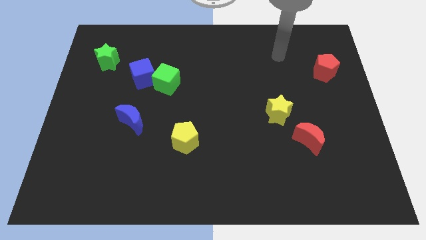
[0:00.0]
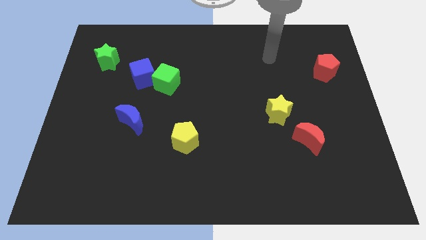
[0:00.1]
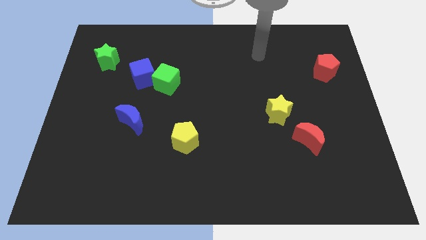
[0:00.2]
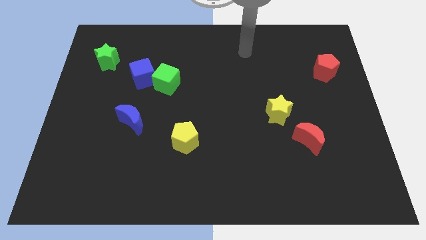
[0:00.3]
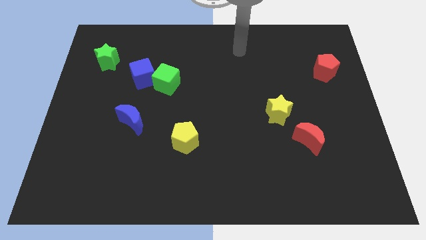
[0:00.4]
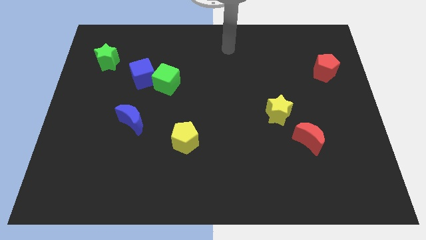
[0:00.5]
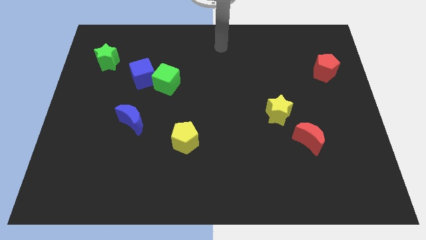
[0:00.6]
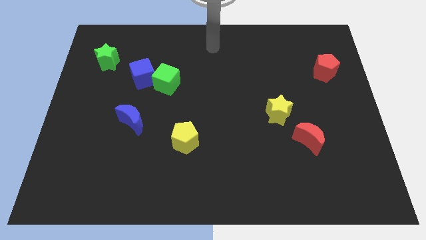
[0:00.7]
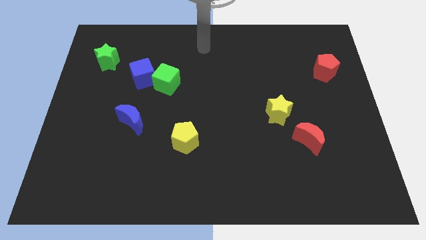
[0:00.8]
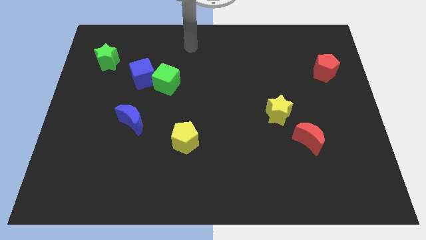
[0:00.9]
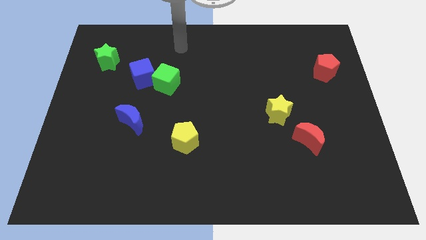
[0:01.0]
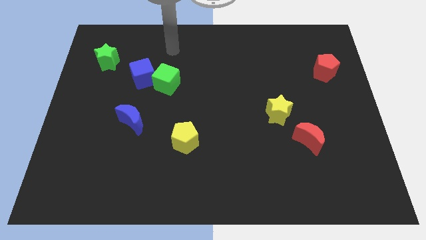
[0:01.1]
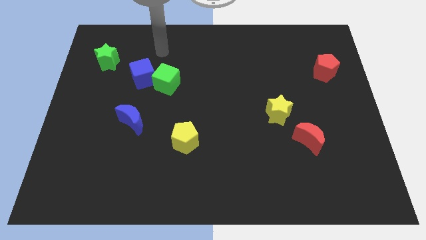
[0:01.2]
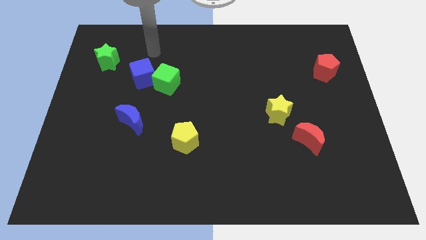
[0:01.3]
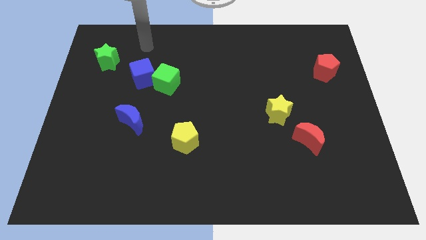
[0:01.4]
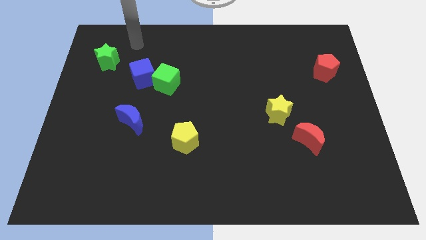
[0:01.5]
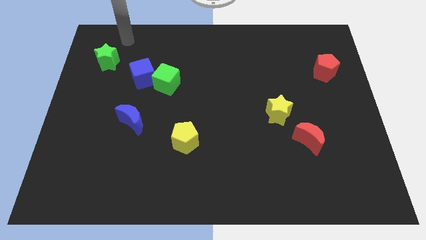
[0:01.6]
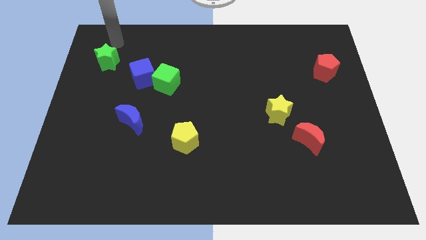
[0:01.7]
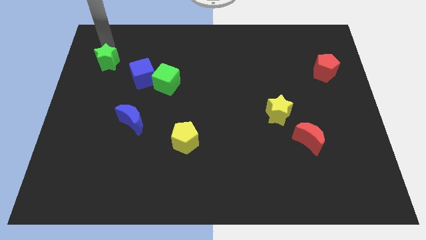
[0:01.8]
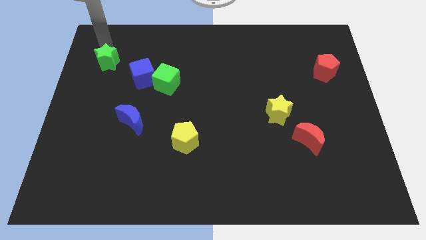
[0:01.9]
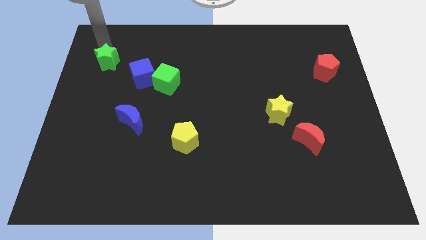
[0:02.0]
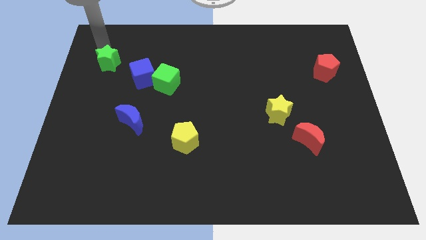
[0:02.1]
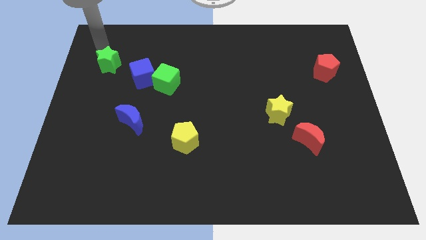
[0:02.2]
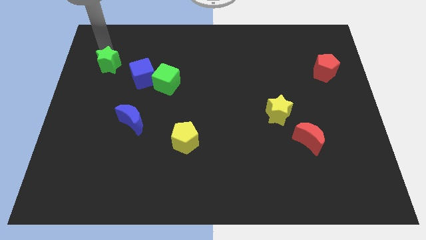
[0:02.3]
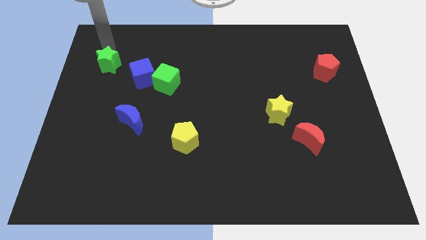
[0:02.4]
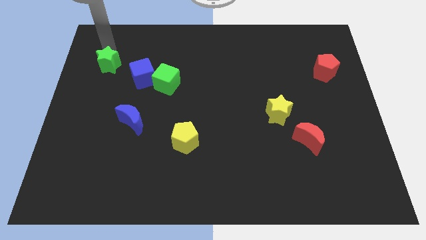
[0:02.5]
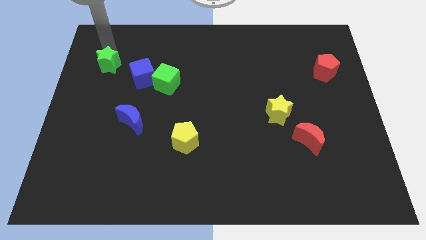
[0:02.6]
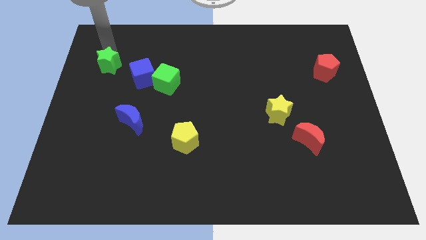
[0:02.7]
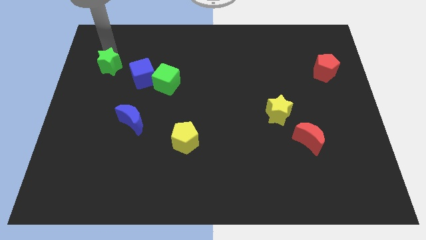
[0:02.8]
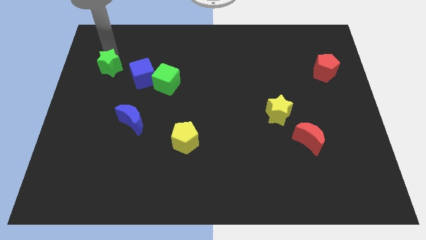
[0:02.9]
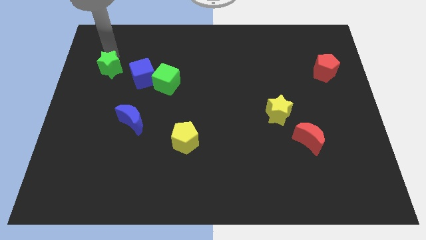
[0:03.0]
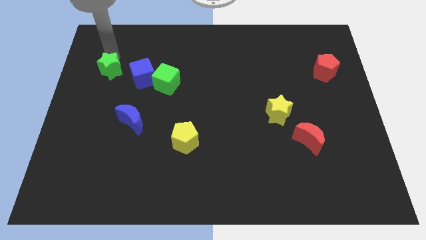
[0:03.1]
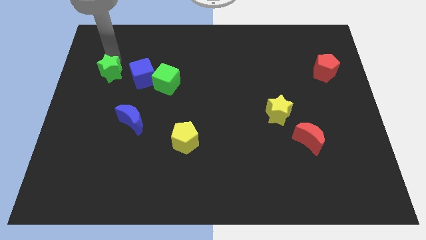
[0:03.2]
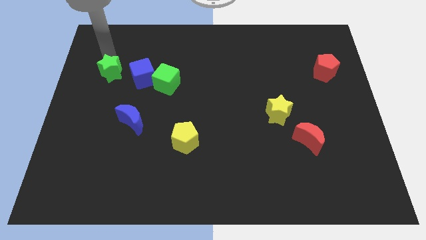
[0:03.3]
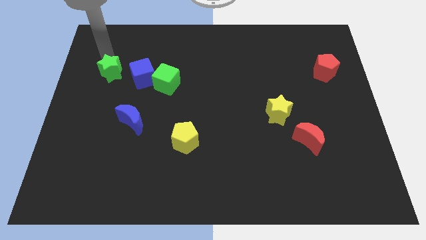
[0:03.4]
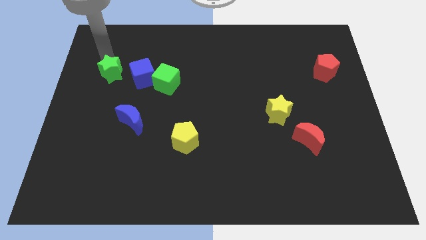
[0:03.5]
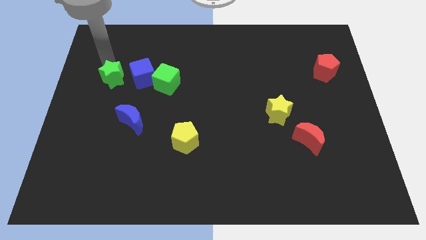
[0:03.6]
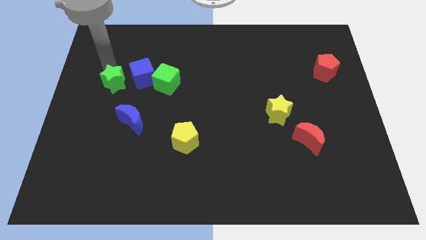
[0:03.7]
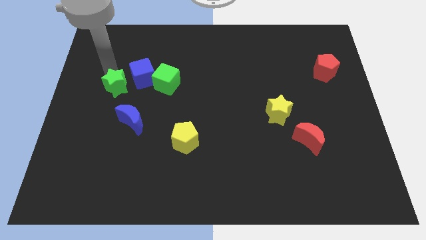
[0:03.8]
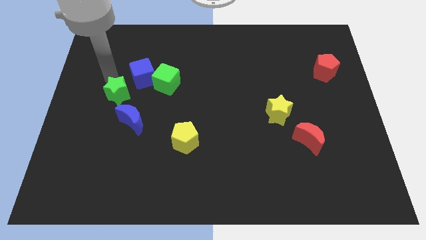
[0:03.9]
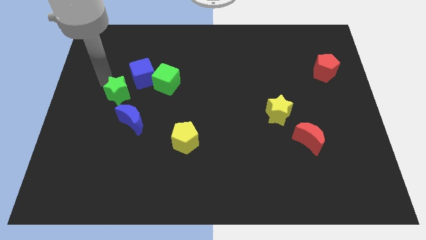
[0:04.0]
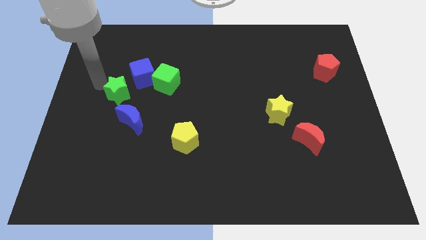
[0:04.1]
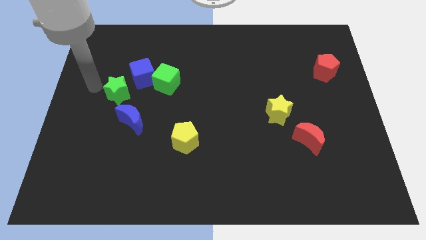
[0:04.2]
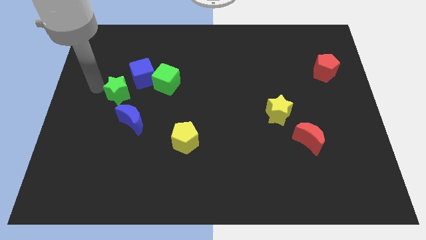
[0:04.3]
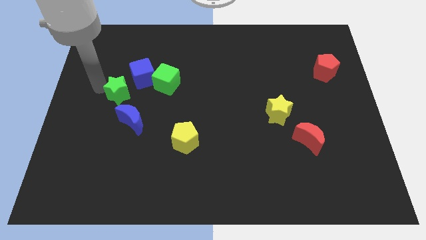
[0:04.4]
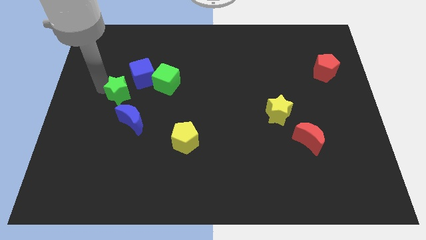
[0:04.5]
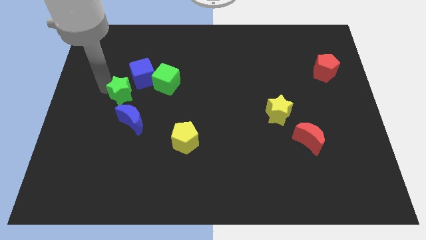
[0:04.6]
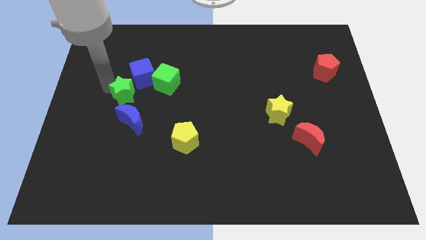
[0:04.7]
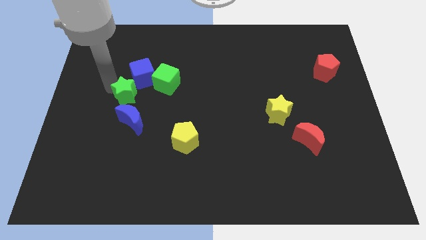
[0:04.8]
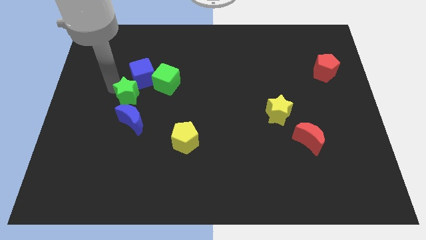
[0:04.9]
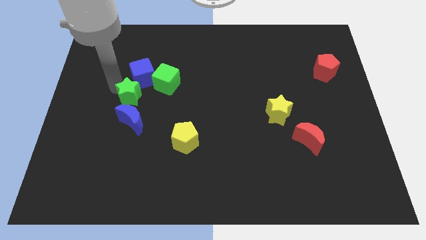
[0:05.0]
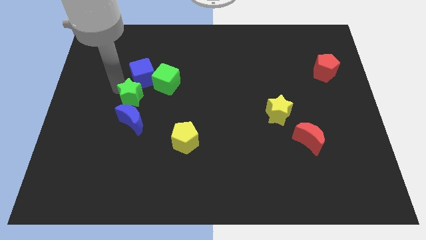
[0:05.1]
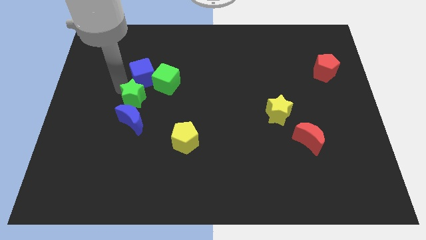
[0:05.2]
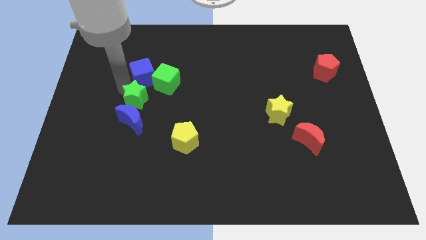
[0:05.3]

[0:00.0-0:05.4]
put the green star to the top right of the blue moon

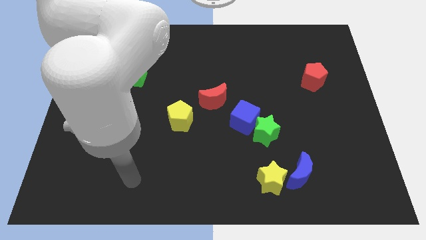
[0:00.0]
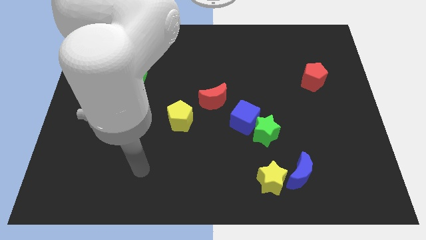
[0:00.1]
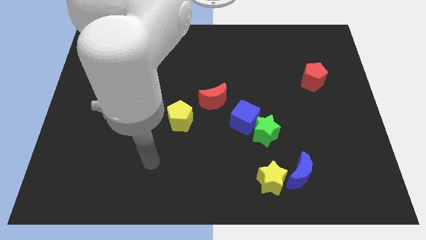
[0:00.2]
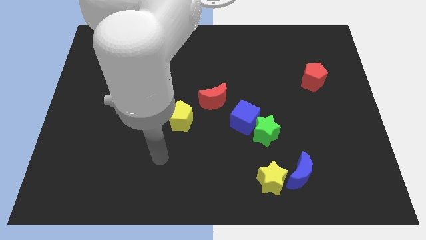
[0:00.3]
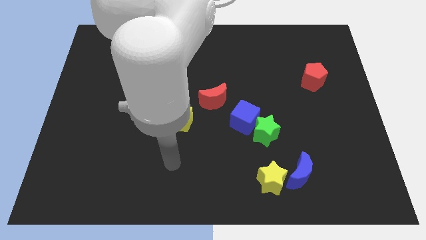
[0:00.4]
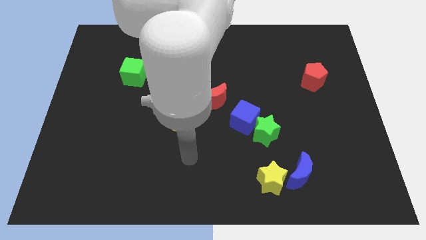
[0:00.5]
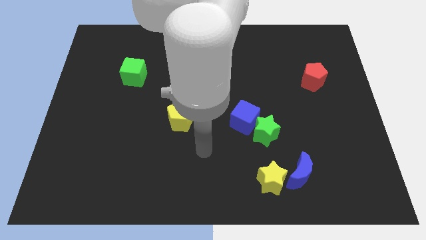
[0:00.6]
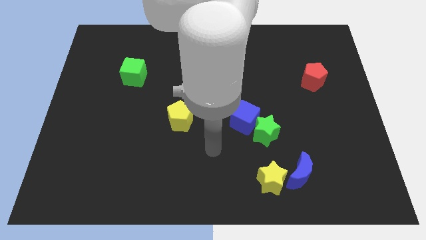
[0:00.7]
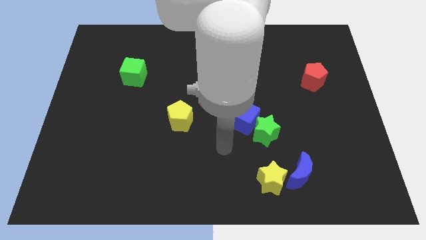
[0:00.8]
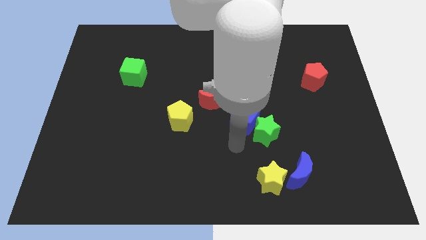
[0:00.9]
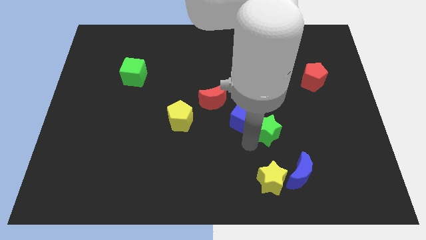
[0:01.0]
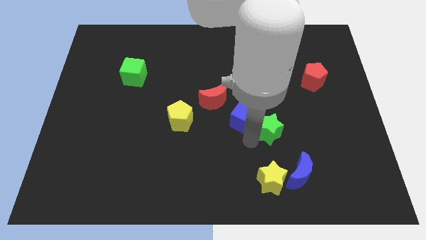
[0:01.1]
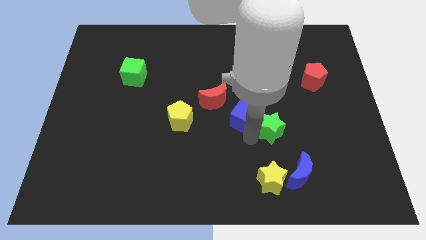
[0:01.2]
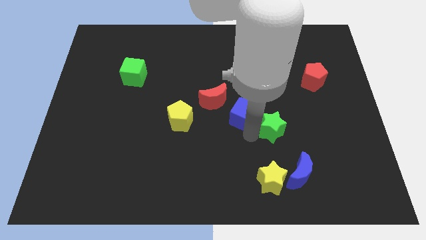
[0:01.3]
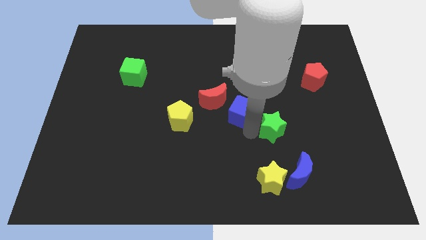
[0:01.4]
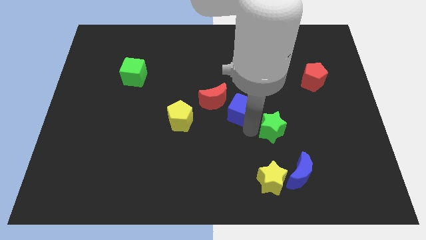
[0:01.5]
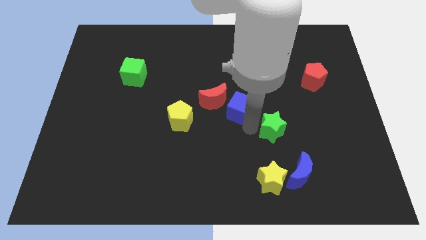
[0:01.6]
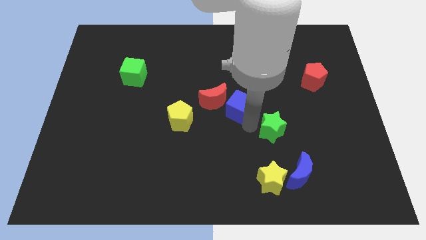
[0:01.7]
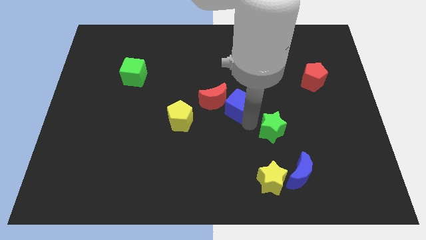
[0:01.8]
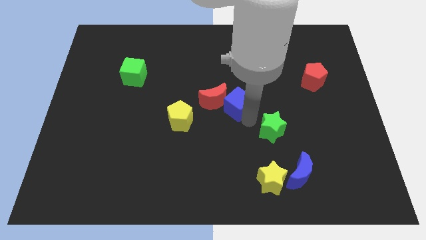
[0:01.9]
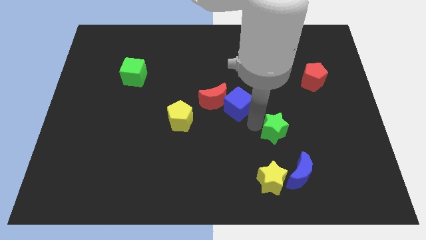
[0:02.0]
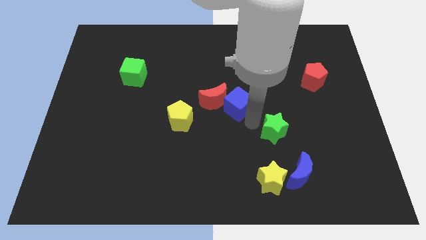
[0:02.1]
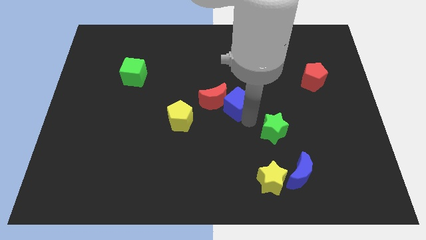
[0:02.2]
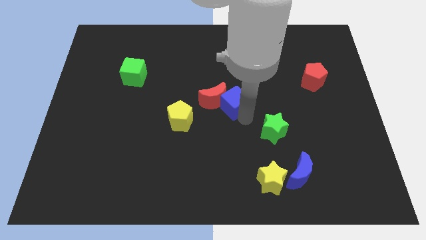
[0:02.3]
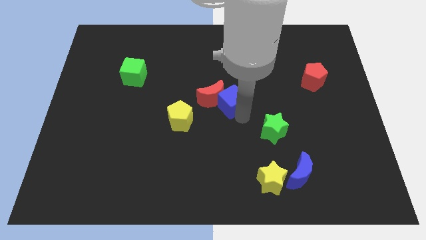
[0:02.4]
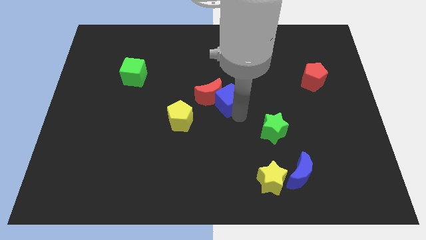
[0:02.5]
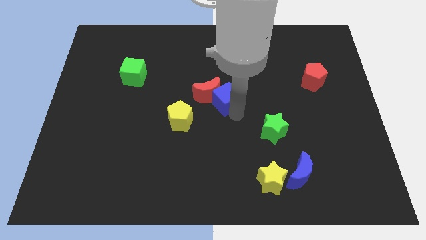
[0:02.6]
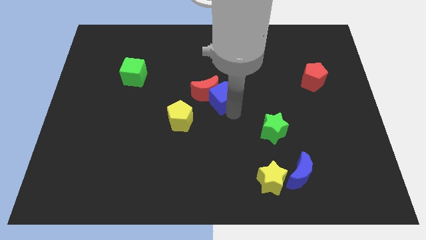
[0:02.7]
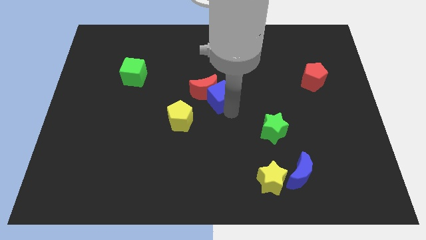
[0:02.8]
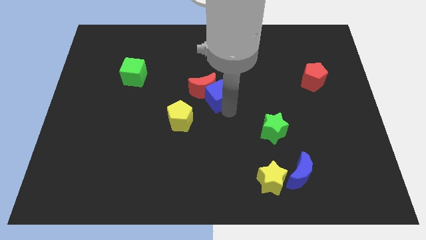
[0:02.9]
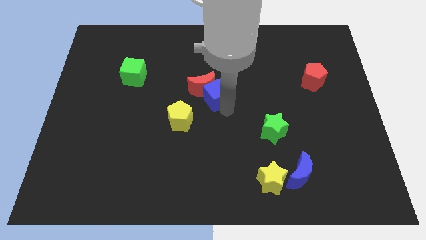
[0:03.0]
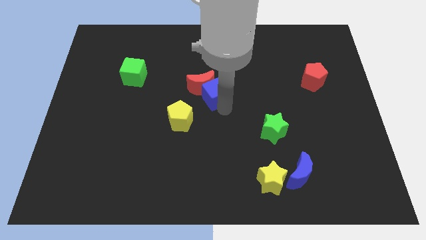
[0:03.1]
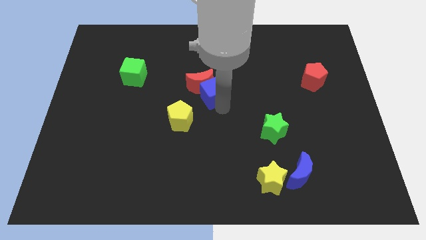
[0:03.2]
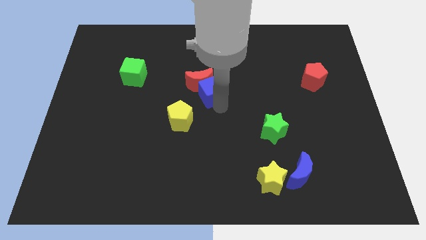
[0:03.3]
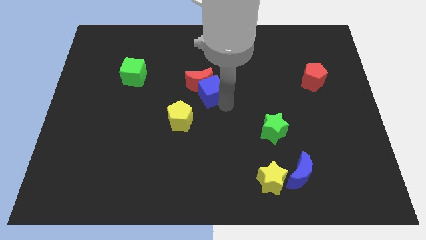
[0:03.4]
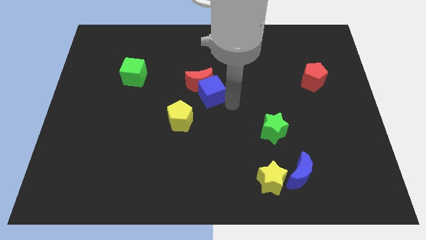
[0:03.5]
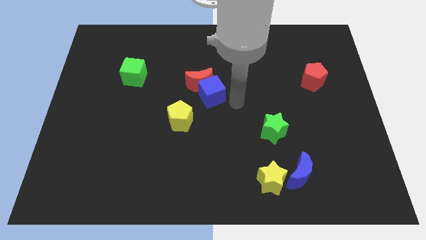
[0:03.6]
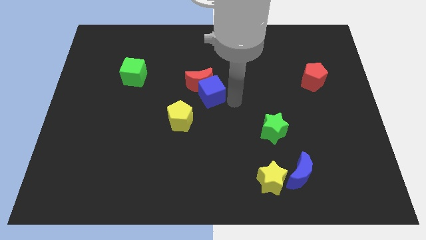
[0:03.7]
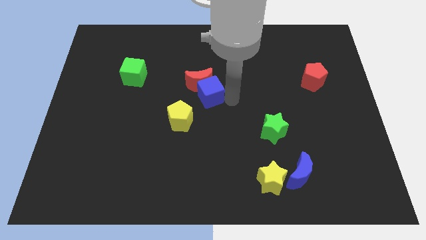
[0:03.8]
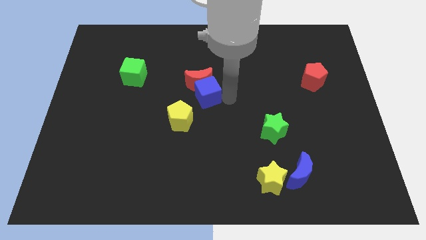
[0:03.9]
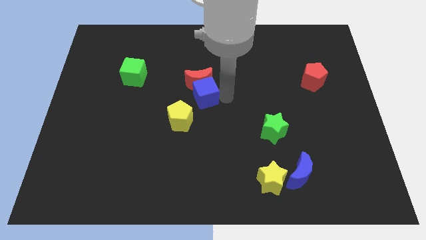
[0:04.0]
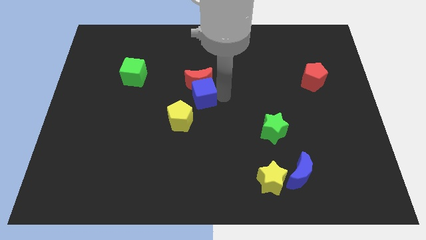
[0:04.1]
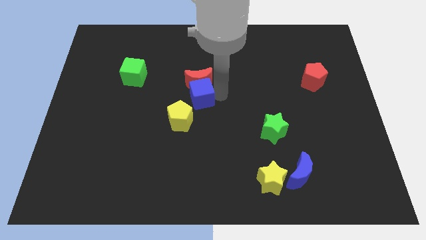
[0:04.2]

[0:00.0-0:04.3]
put the blue cube to the top side of the yellow pentagon
